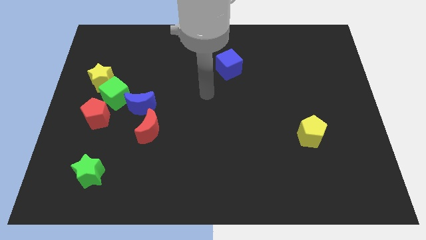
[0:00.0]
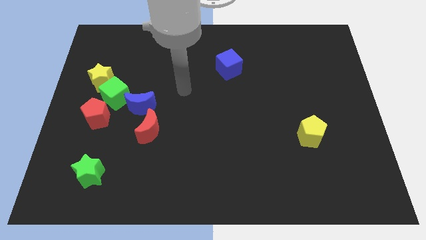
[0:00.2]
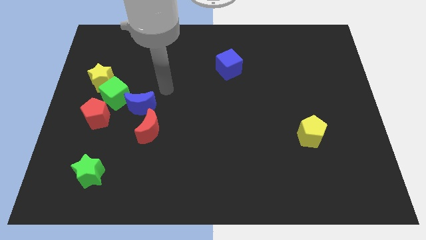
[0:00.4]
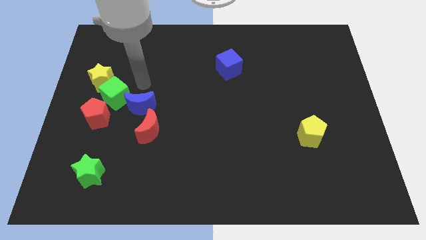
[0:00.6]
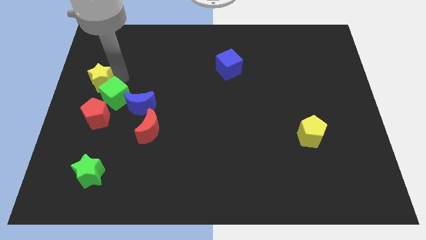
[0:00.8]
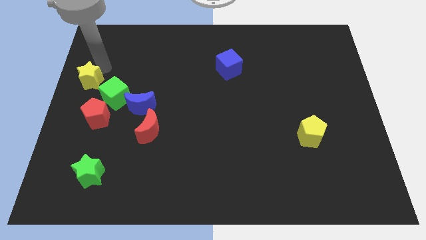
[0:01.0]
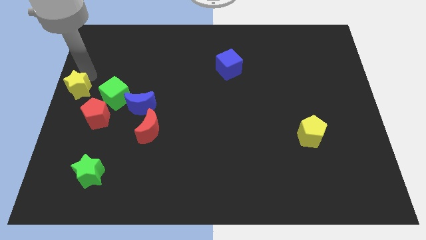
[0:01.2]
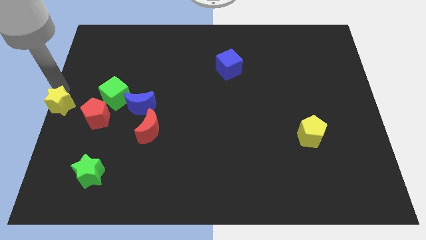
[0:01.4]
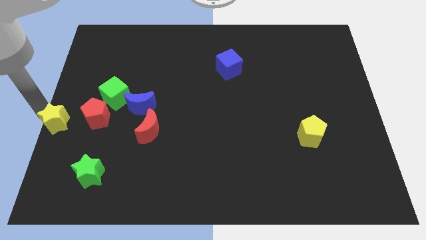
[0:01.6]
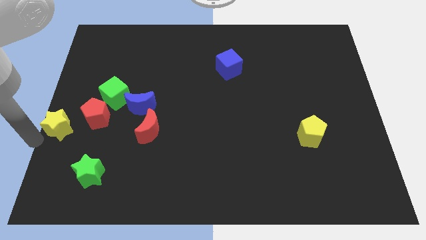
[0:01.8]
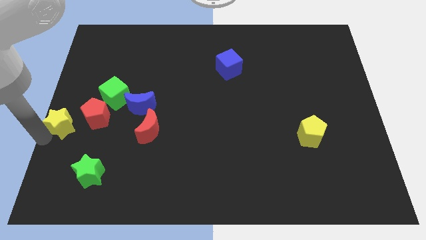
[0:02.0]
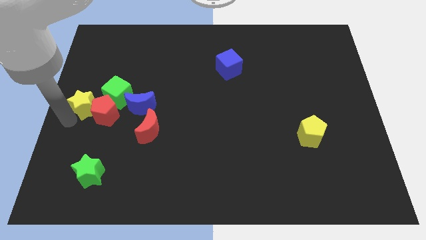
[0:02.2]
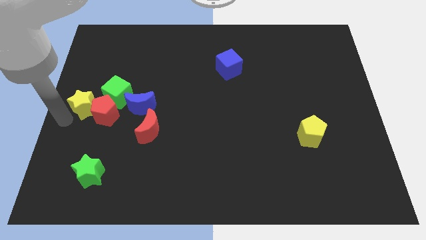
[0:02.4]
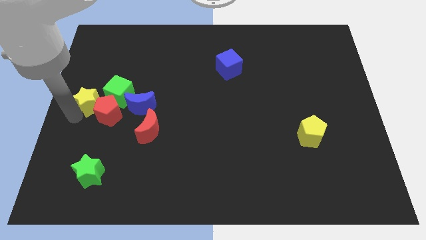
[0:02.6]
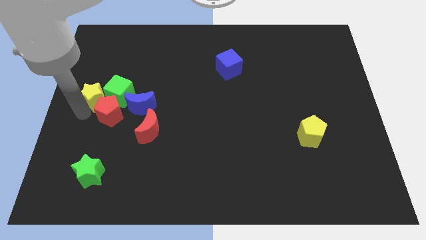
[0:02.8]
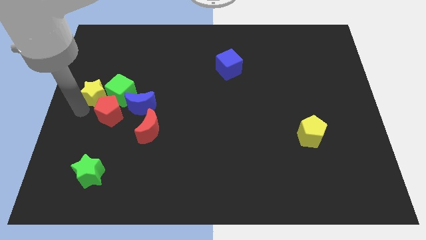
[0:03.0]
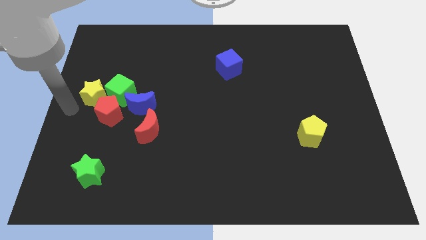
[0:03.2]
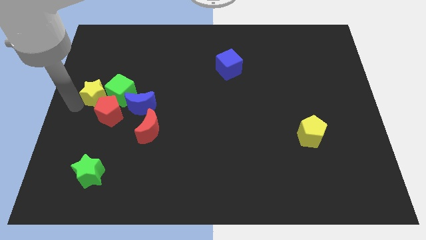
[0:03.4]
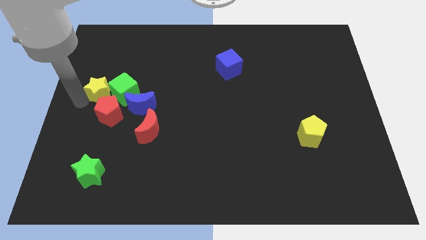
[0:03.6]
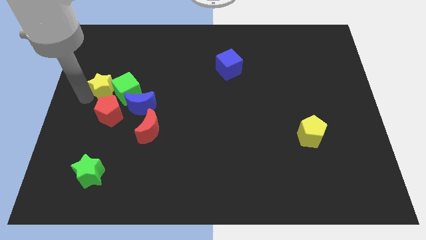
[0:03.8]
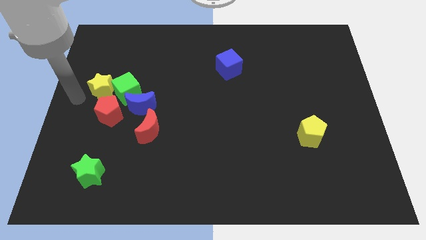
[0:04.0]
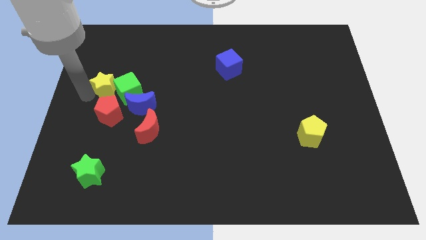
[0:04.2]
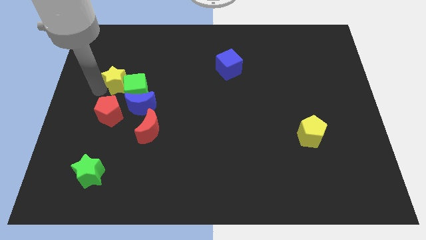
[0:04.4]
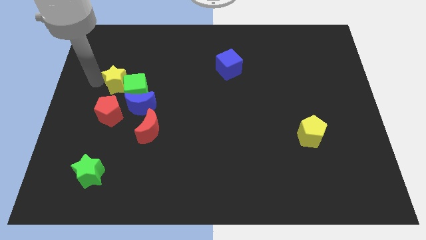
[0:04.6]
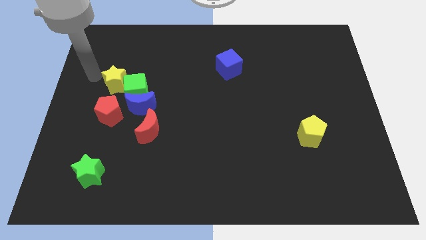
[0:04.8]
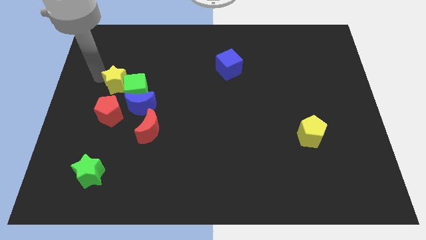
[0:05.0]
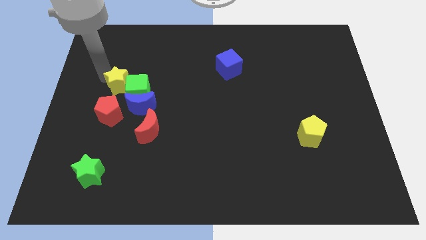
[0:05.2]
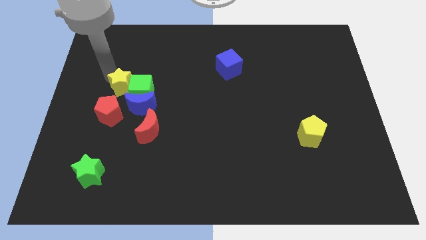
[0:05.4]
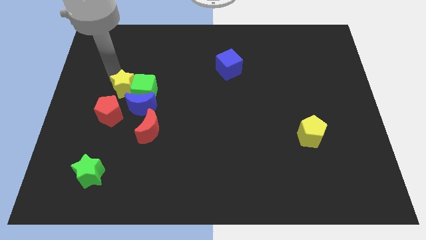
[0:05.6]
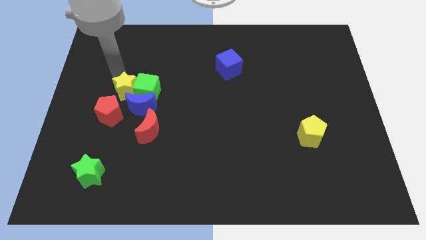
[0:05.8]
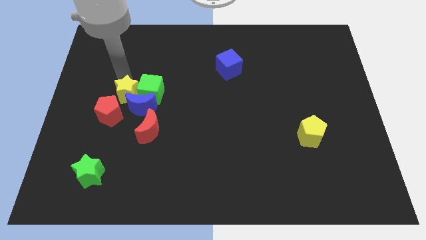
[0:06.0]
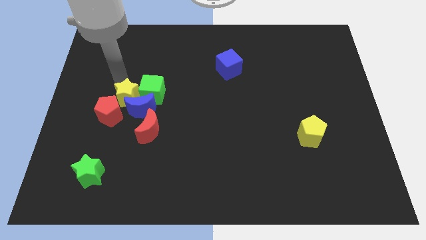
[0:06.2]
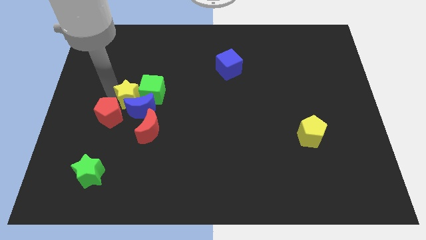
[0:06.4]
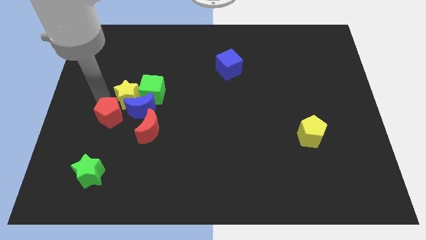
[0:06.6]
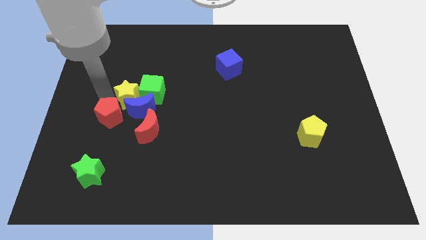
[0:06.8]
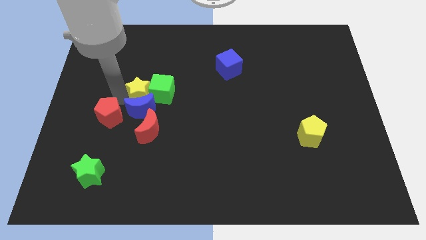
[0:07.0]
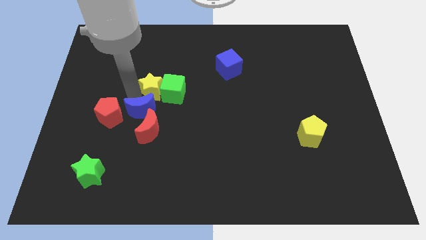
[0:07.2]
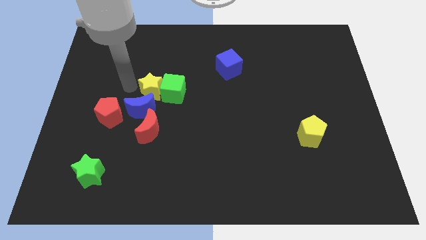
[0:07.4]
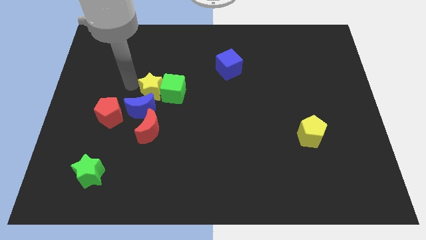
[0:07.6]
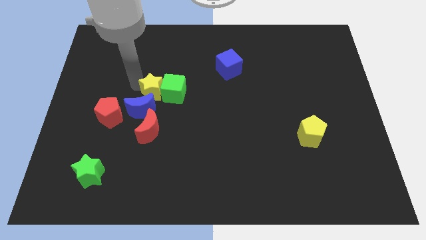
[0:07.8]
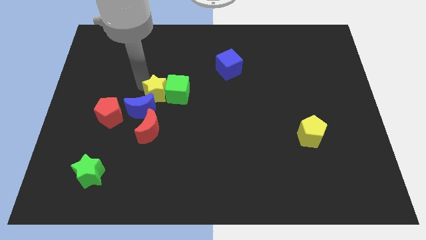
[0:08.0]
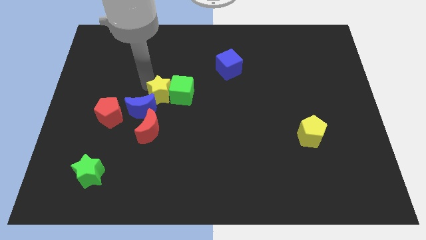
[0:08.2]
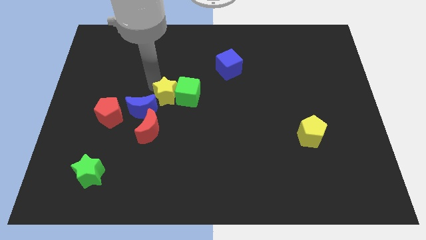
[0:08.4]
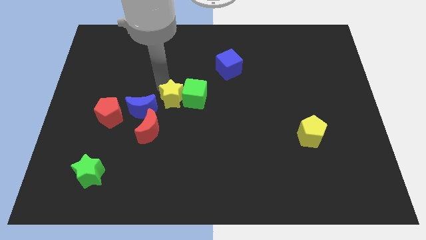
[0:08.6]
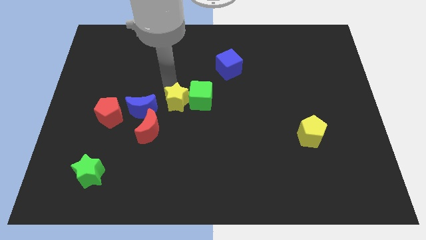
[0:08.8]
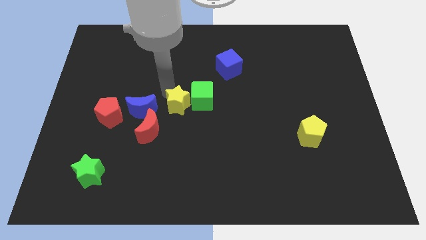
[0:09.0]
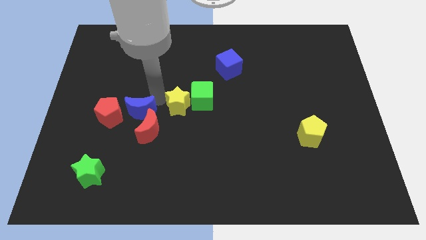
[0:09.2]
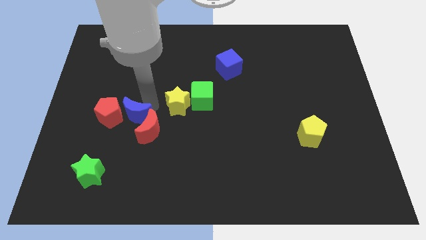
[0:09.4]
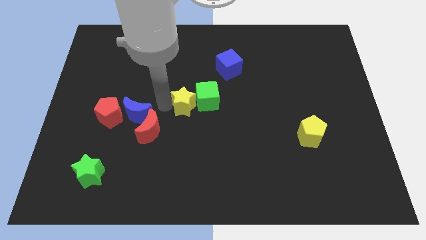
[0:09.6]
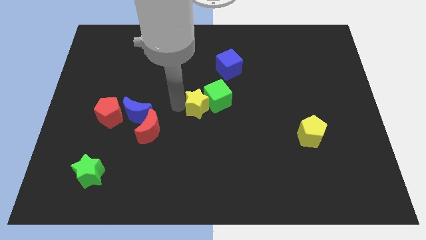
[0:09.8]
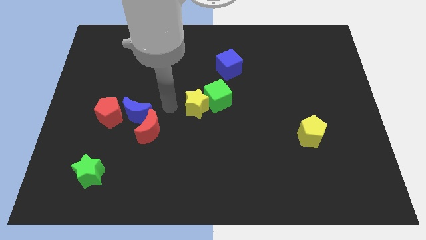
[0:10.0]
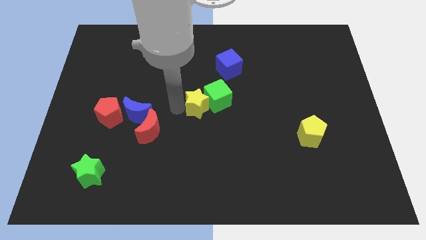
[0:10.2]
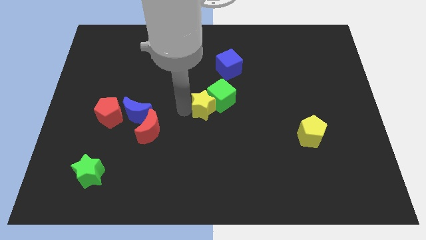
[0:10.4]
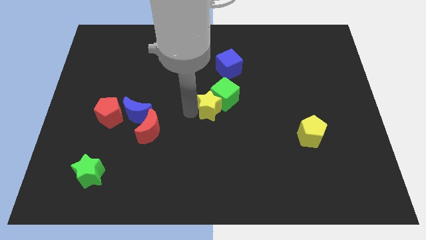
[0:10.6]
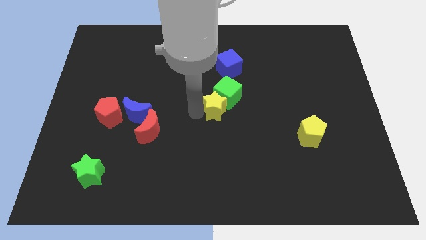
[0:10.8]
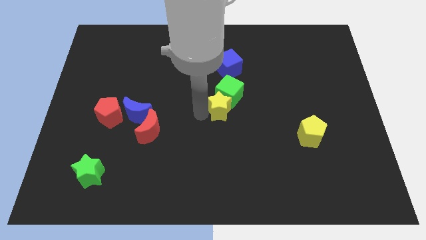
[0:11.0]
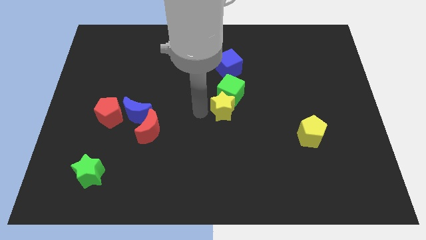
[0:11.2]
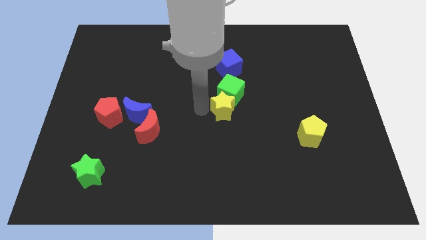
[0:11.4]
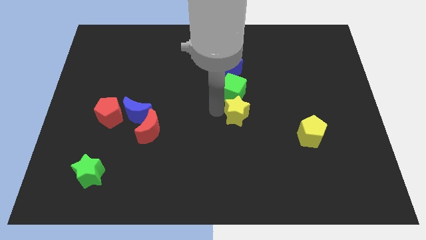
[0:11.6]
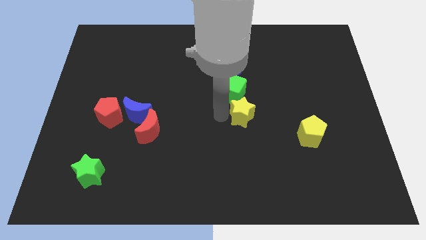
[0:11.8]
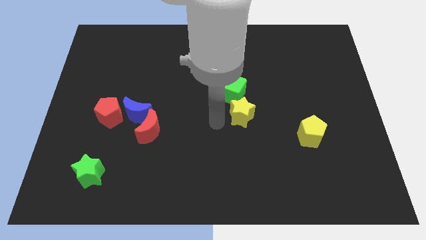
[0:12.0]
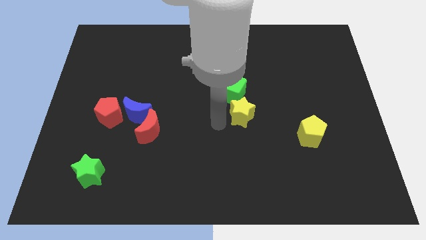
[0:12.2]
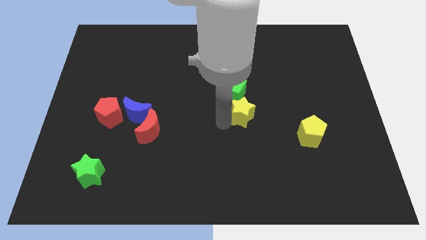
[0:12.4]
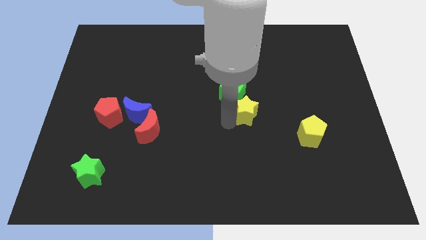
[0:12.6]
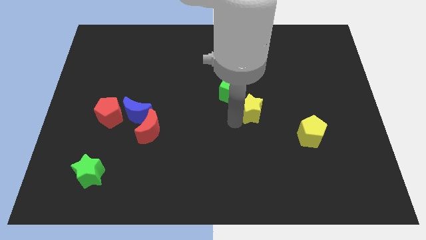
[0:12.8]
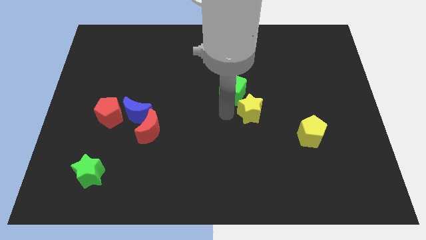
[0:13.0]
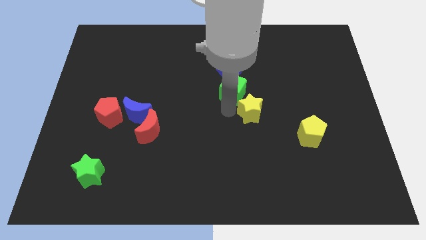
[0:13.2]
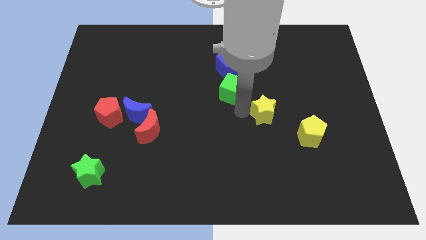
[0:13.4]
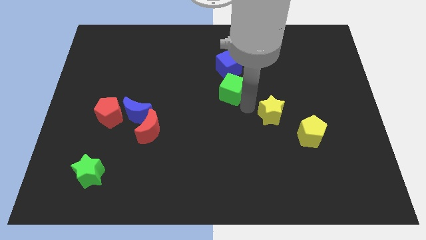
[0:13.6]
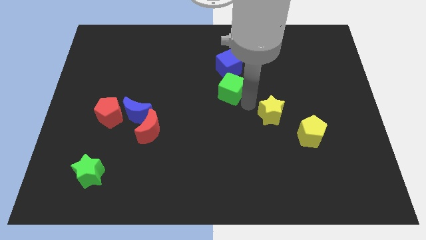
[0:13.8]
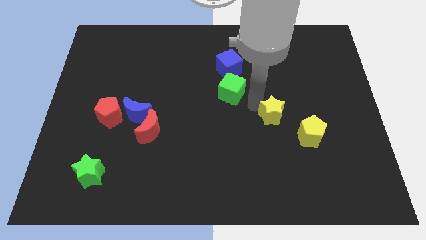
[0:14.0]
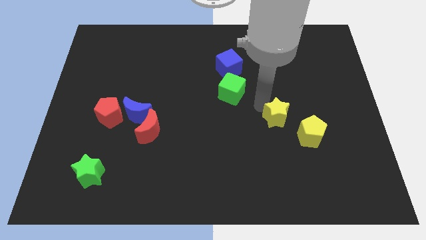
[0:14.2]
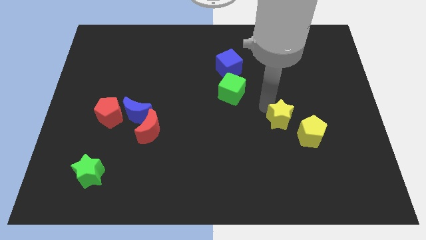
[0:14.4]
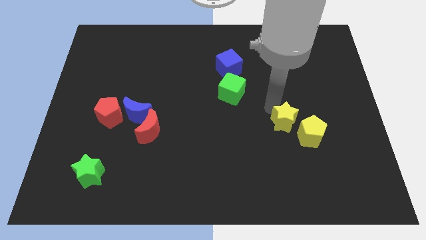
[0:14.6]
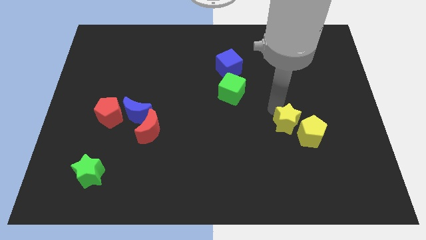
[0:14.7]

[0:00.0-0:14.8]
slide the yellow star next to the yellow pentagon
